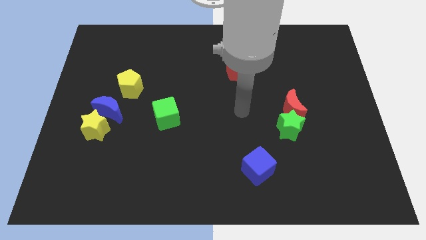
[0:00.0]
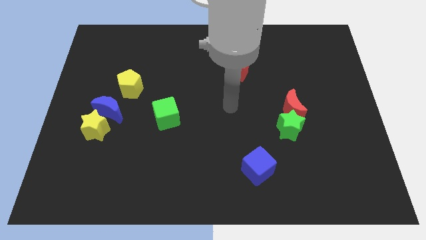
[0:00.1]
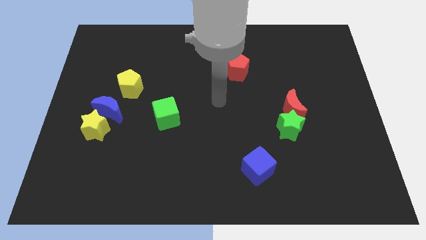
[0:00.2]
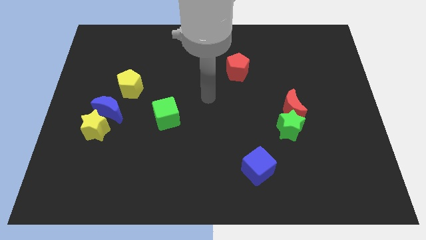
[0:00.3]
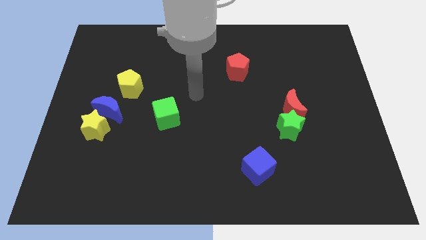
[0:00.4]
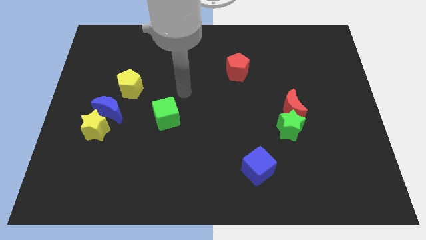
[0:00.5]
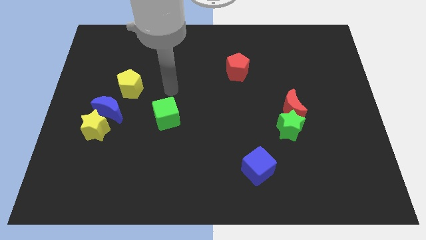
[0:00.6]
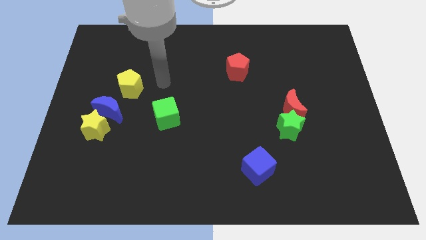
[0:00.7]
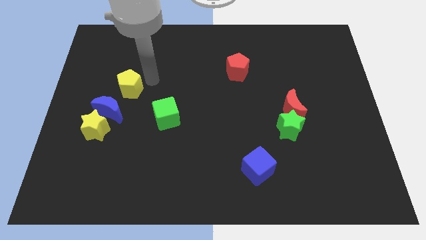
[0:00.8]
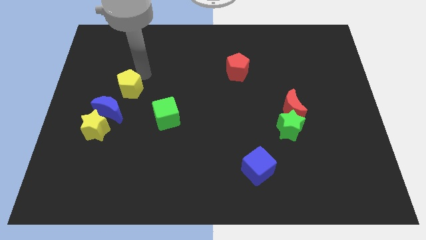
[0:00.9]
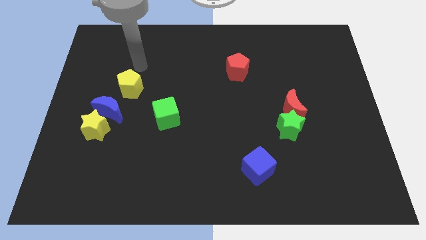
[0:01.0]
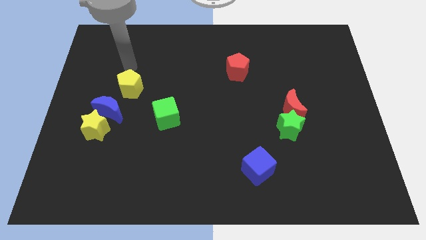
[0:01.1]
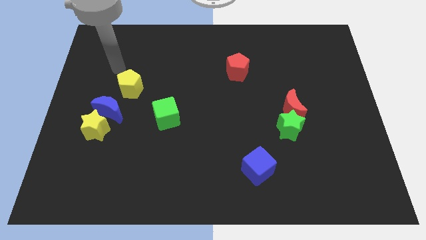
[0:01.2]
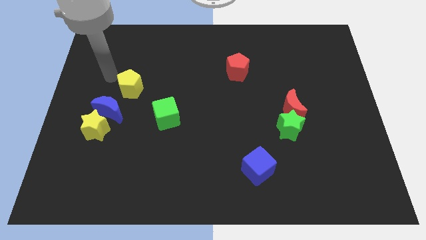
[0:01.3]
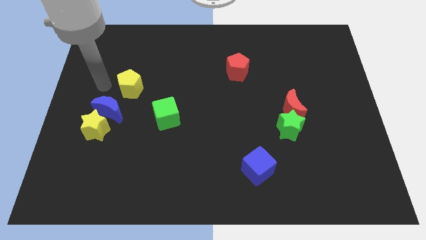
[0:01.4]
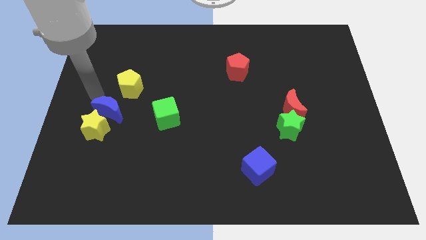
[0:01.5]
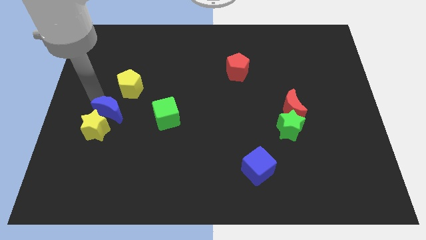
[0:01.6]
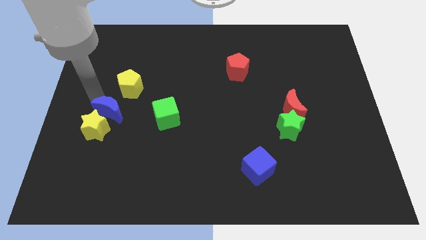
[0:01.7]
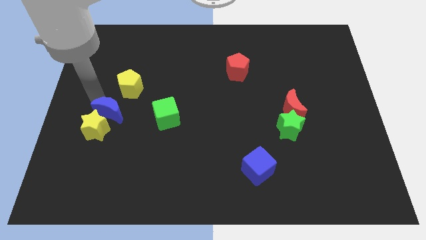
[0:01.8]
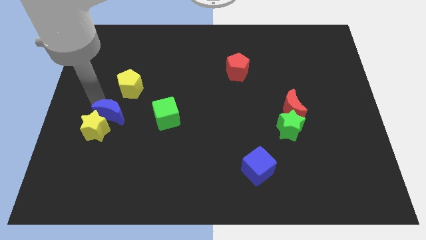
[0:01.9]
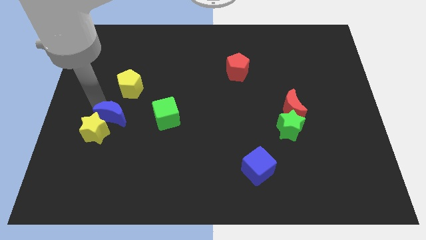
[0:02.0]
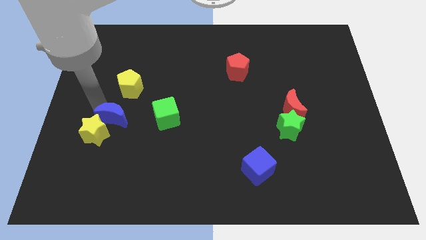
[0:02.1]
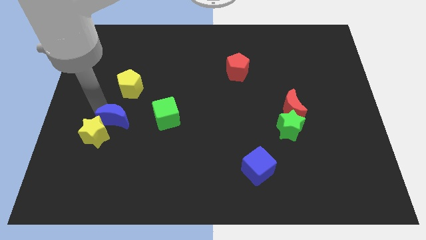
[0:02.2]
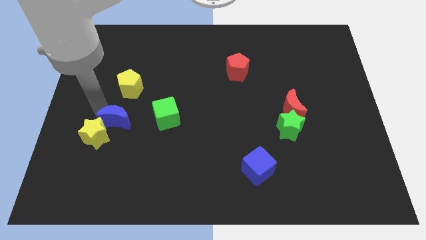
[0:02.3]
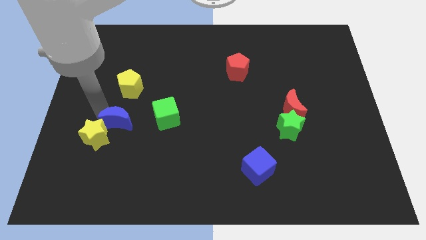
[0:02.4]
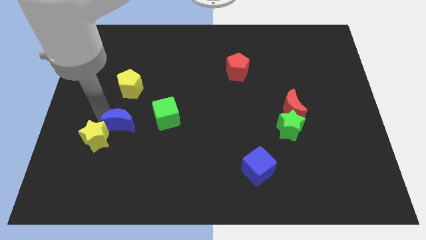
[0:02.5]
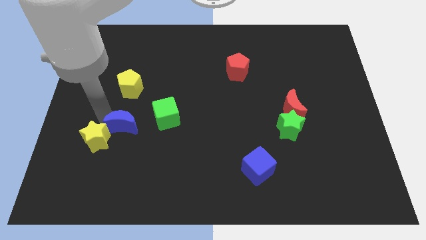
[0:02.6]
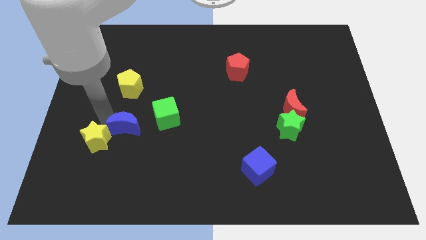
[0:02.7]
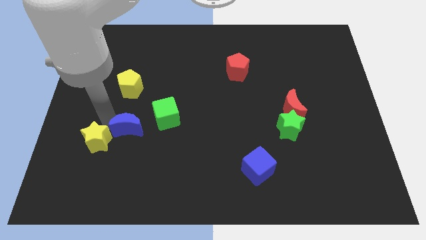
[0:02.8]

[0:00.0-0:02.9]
slide the blue moon slightly diagonally down and to the right

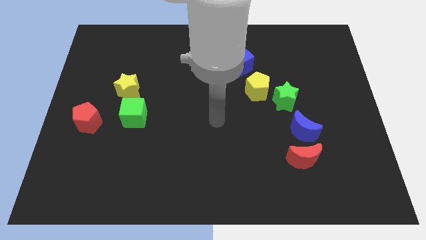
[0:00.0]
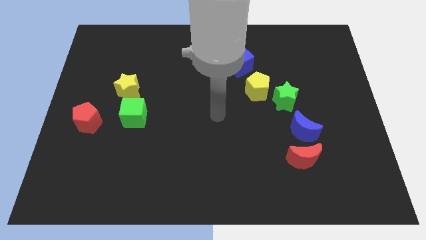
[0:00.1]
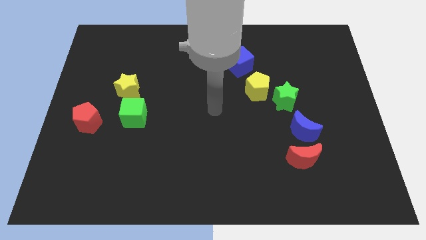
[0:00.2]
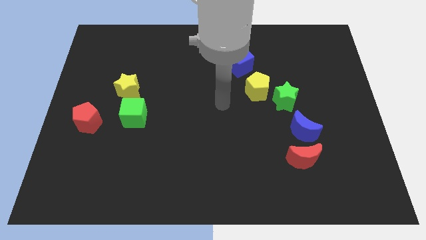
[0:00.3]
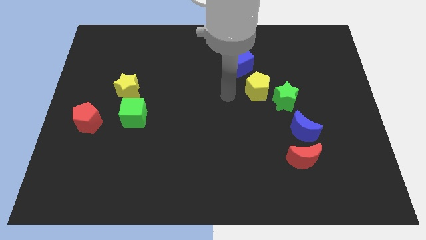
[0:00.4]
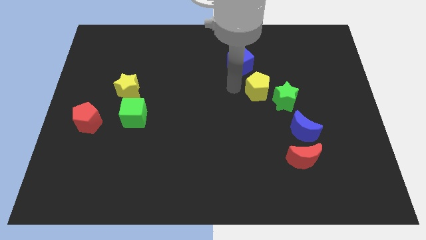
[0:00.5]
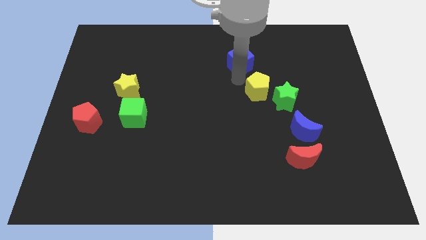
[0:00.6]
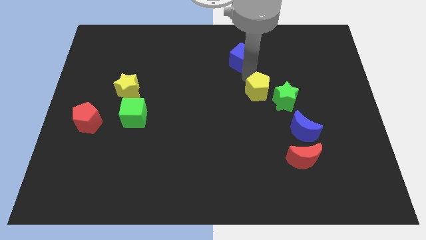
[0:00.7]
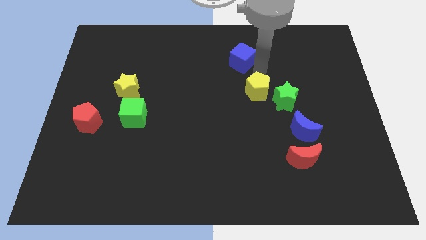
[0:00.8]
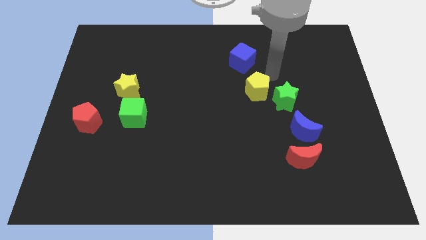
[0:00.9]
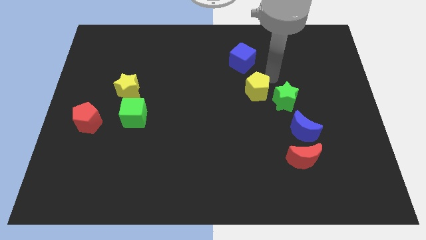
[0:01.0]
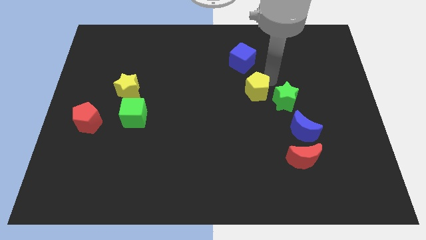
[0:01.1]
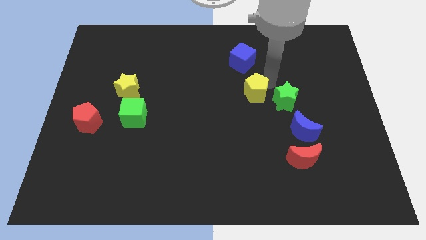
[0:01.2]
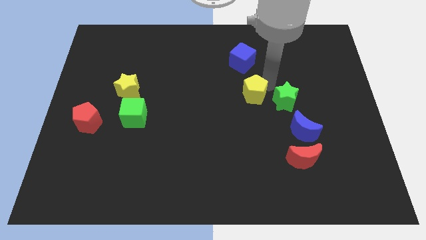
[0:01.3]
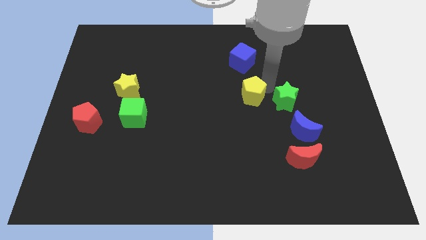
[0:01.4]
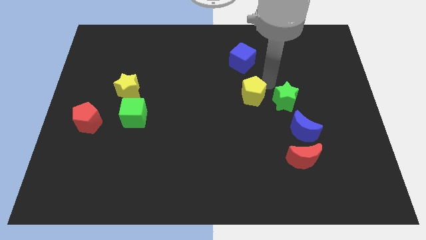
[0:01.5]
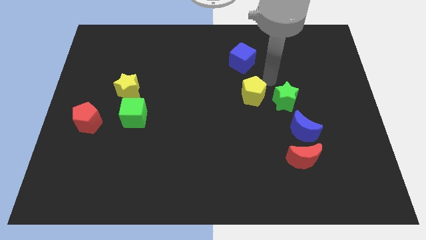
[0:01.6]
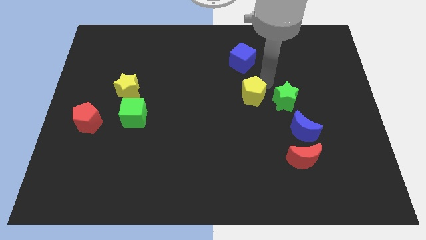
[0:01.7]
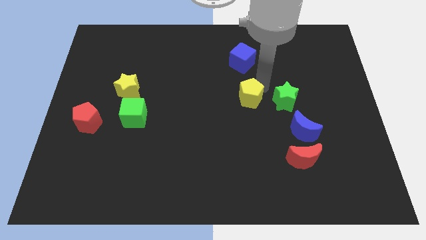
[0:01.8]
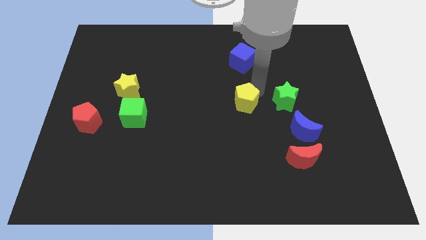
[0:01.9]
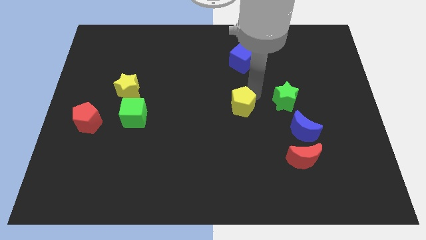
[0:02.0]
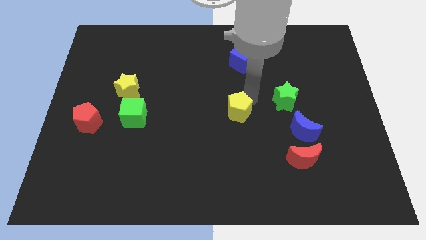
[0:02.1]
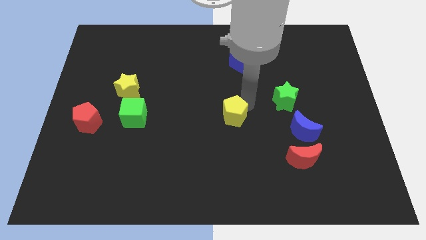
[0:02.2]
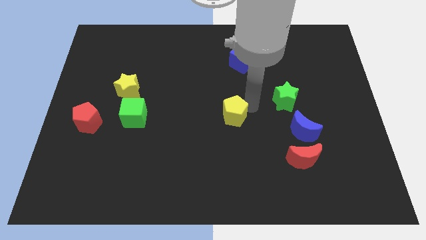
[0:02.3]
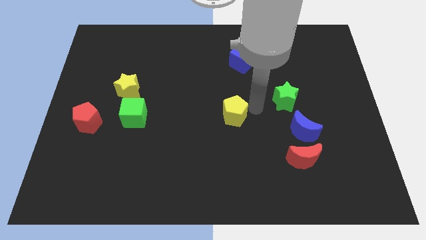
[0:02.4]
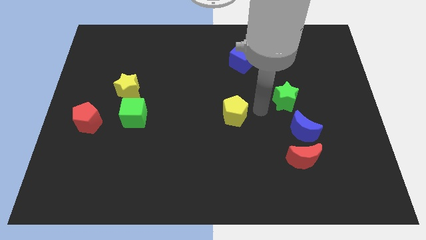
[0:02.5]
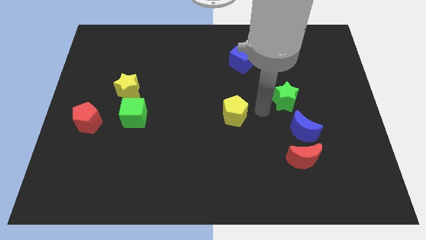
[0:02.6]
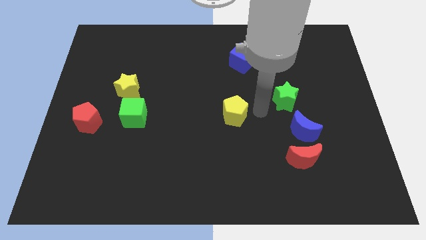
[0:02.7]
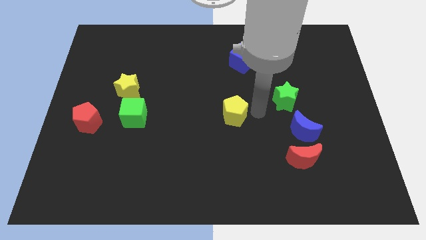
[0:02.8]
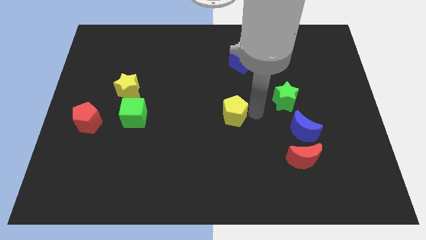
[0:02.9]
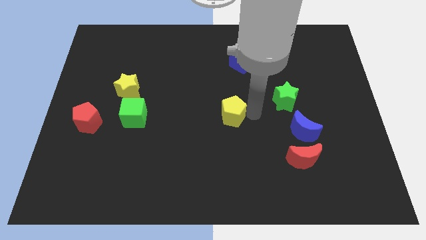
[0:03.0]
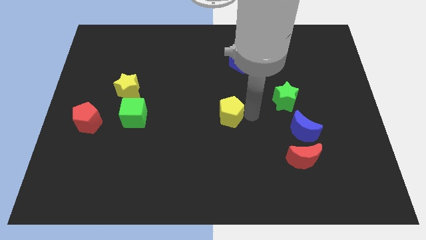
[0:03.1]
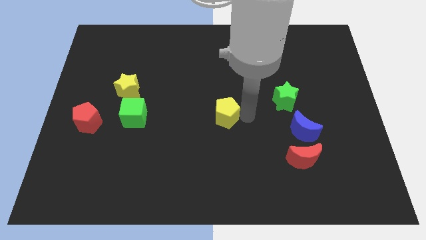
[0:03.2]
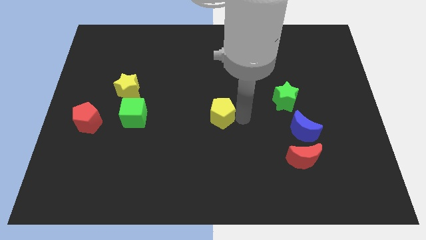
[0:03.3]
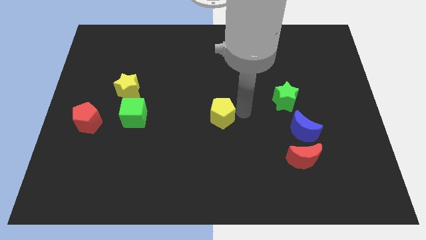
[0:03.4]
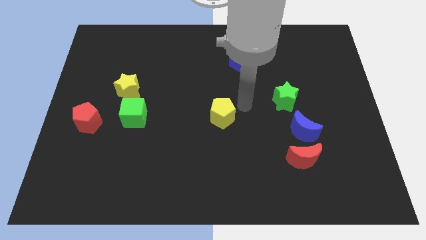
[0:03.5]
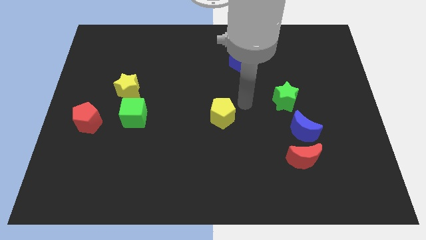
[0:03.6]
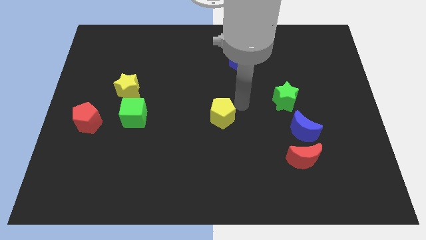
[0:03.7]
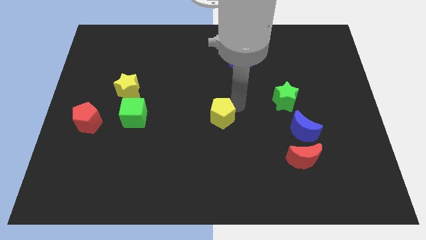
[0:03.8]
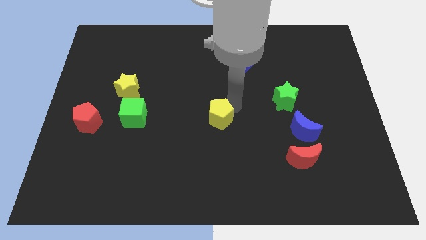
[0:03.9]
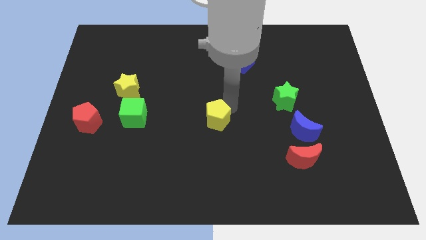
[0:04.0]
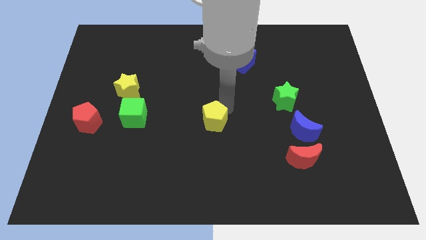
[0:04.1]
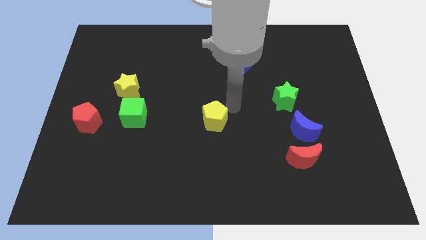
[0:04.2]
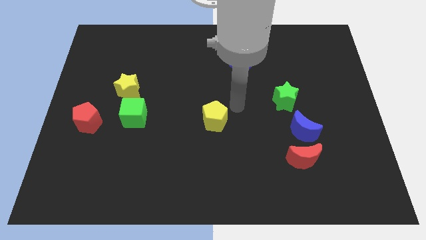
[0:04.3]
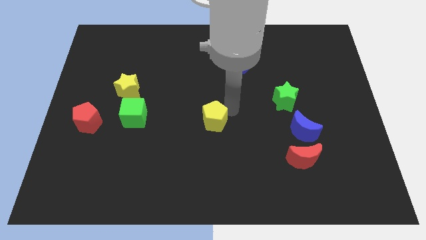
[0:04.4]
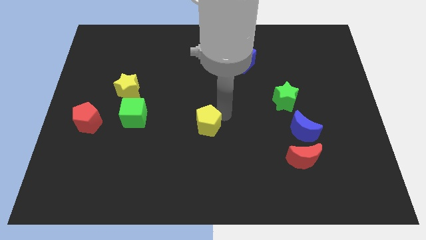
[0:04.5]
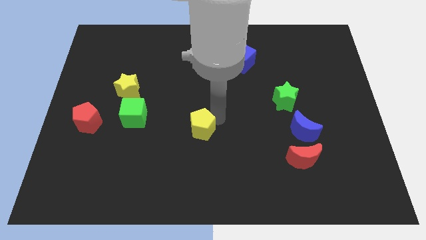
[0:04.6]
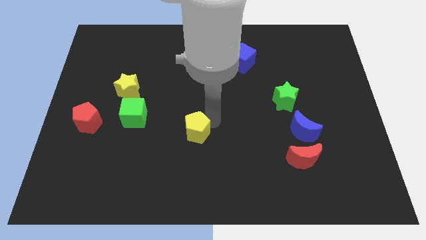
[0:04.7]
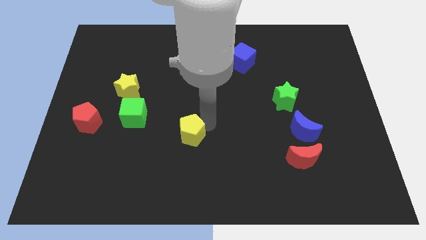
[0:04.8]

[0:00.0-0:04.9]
move the yellow pentagon downwards and then to the left
